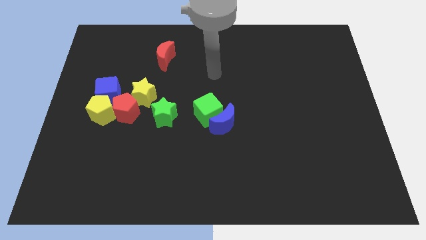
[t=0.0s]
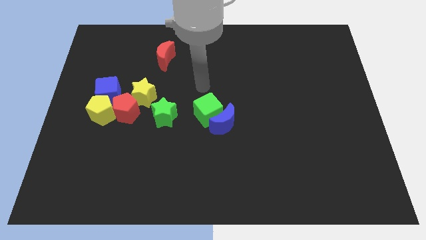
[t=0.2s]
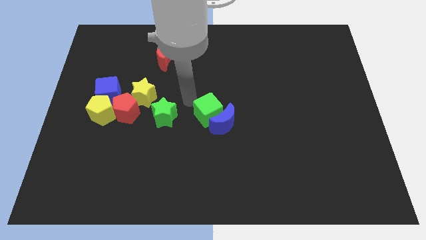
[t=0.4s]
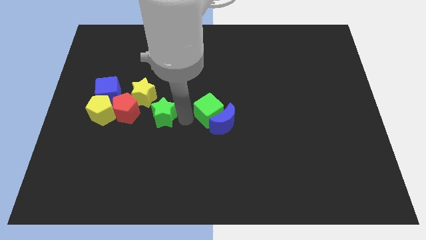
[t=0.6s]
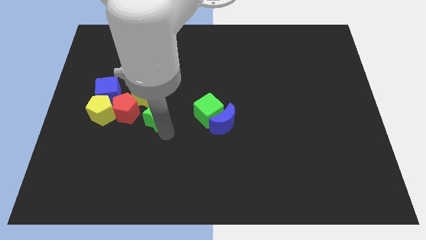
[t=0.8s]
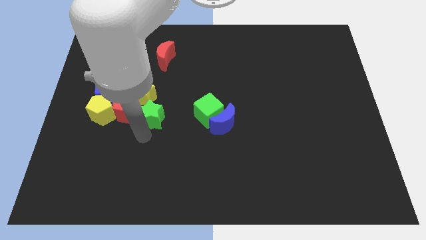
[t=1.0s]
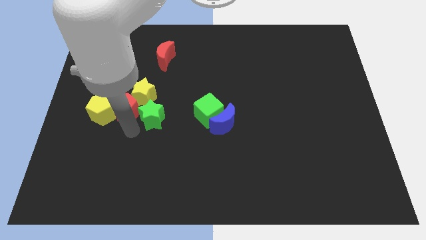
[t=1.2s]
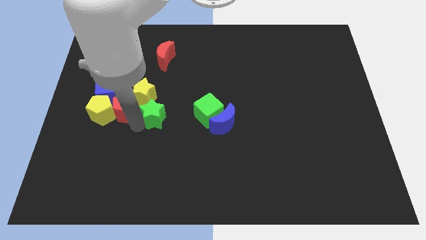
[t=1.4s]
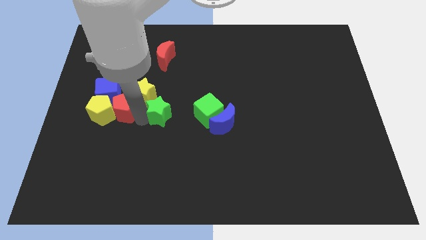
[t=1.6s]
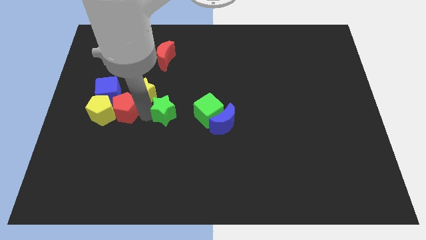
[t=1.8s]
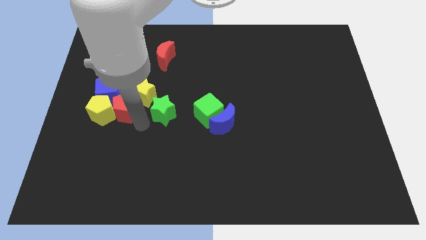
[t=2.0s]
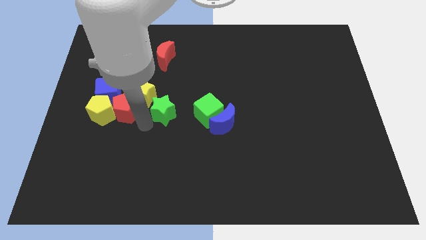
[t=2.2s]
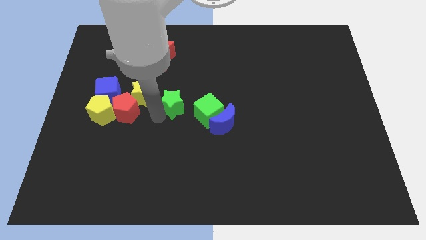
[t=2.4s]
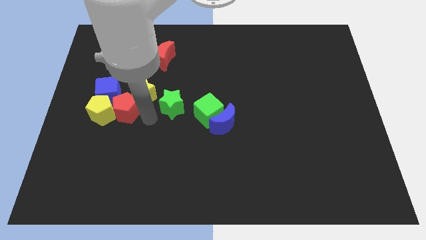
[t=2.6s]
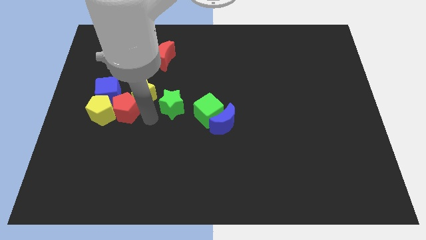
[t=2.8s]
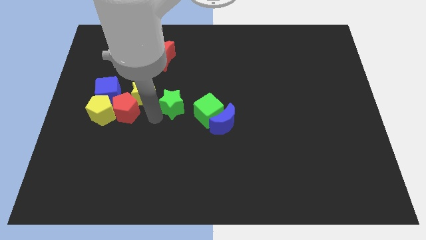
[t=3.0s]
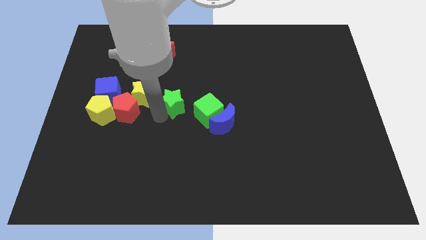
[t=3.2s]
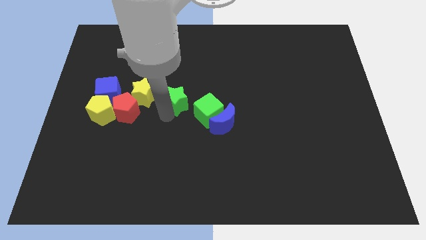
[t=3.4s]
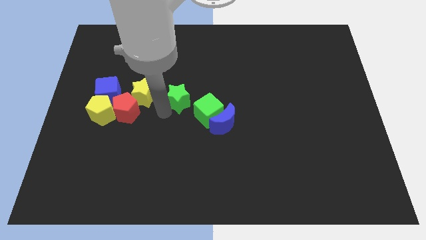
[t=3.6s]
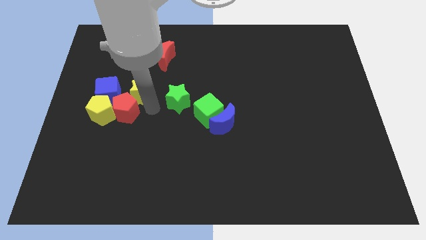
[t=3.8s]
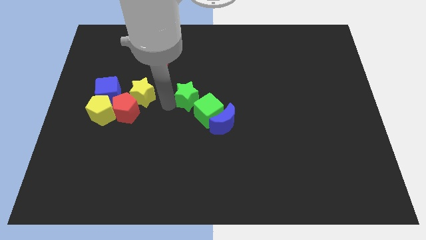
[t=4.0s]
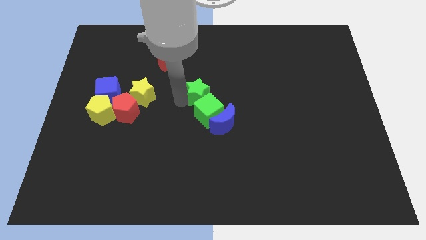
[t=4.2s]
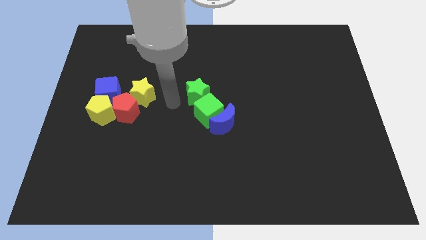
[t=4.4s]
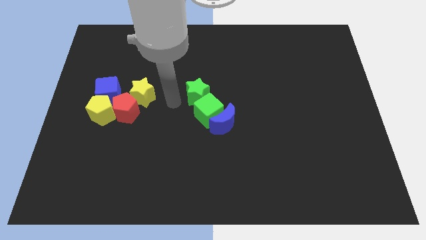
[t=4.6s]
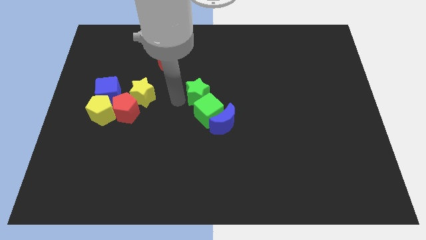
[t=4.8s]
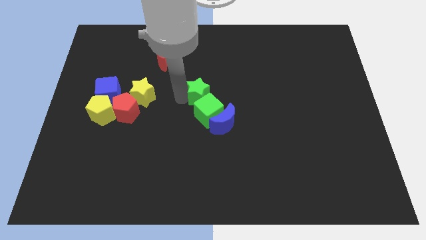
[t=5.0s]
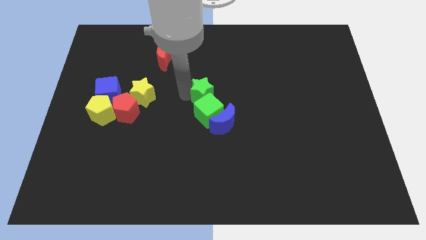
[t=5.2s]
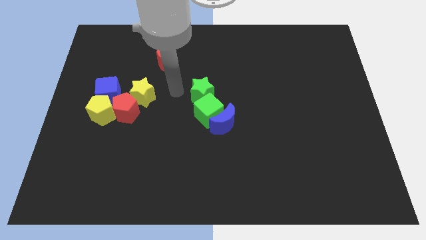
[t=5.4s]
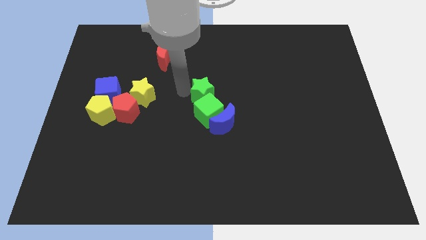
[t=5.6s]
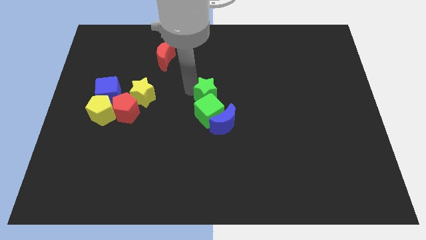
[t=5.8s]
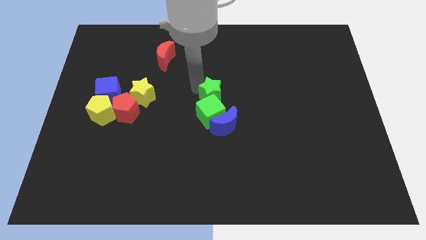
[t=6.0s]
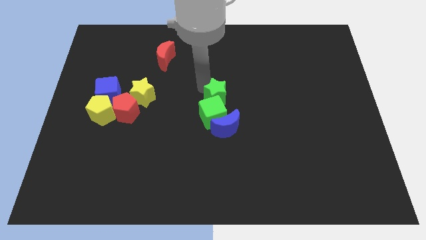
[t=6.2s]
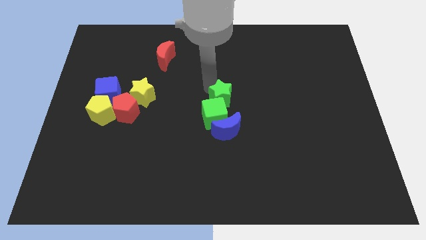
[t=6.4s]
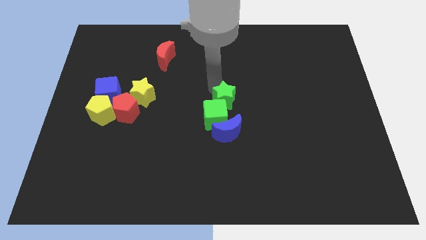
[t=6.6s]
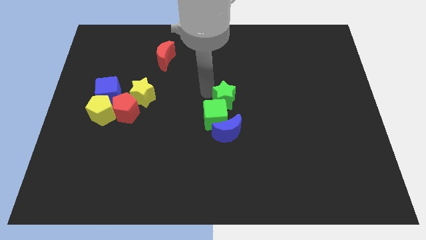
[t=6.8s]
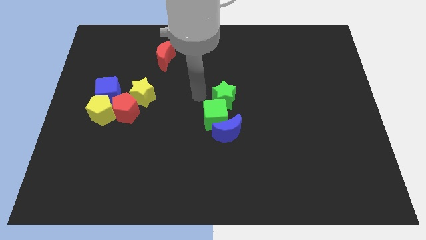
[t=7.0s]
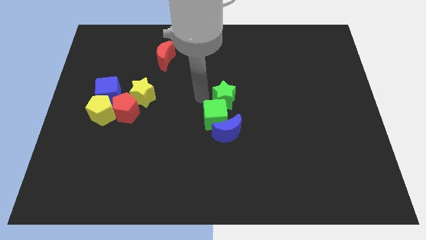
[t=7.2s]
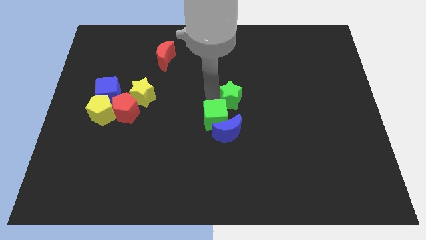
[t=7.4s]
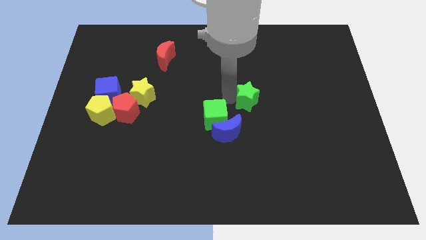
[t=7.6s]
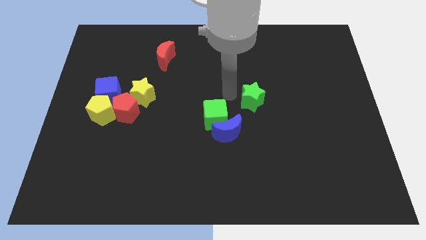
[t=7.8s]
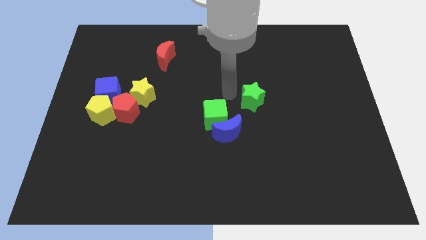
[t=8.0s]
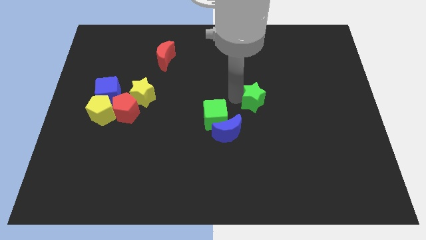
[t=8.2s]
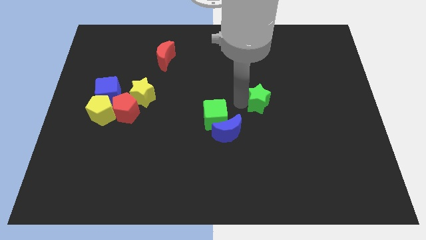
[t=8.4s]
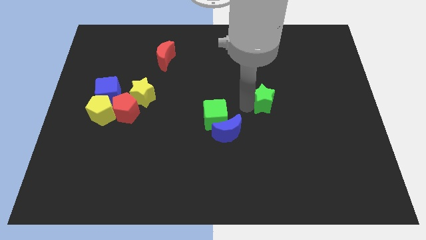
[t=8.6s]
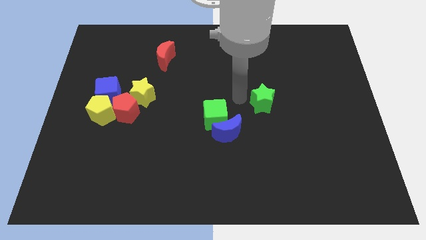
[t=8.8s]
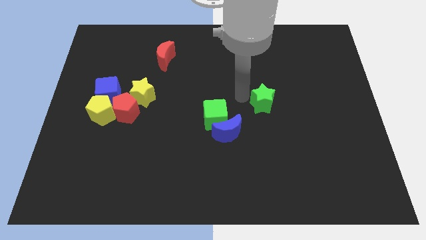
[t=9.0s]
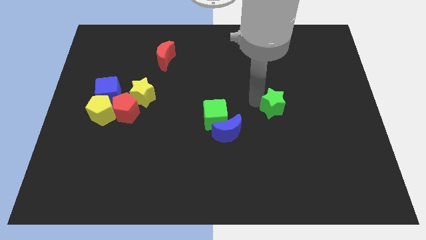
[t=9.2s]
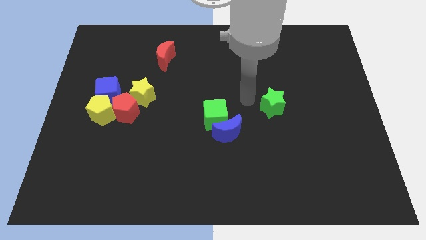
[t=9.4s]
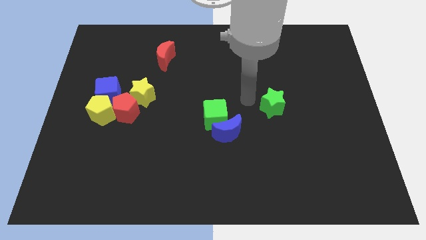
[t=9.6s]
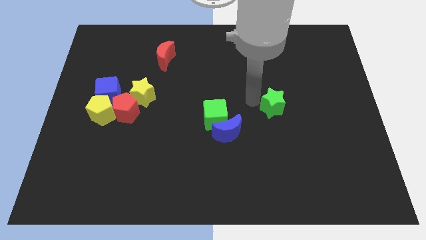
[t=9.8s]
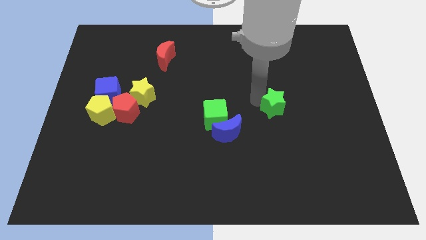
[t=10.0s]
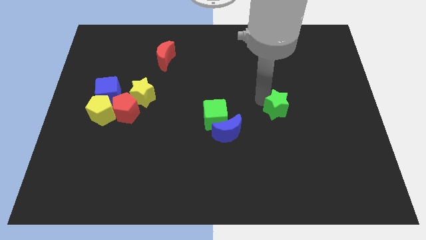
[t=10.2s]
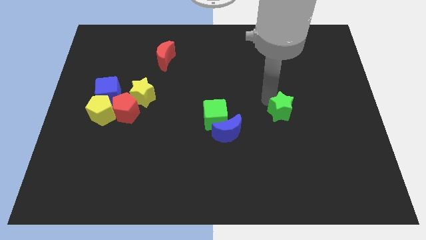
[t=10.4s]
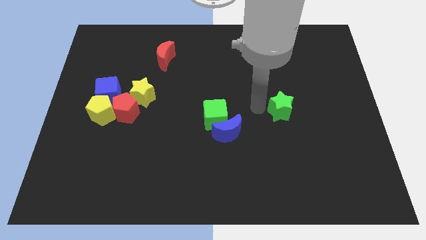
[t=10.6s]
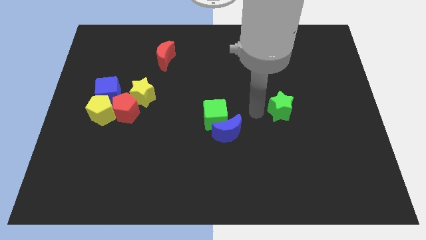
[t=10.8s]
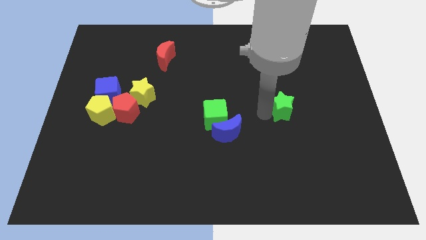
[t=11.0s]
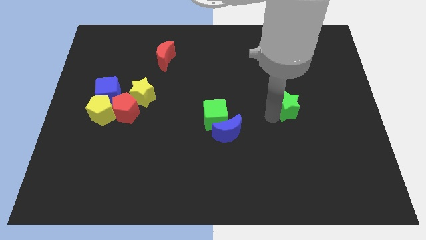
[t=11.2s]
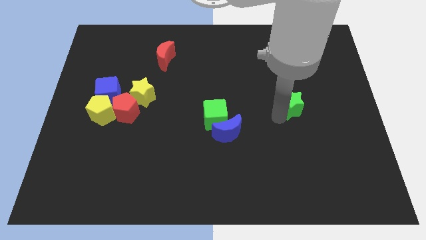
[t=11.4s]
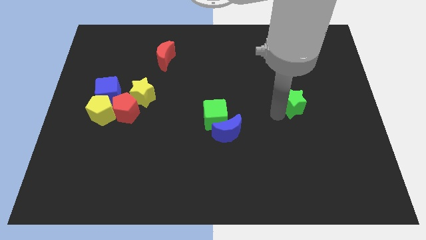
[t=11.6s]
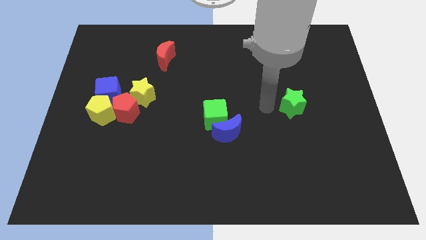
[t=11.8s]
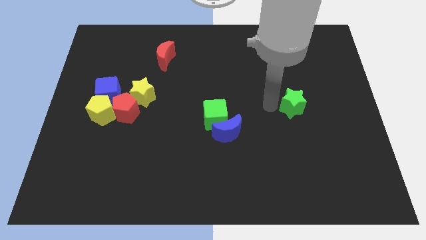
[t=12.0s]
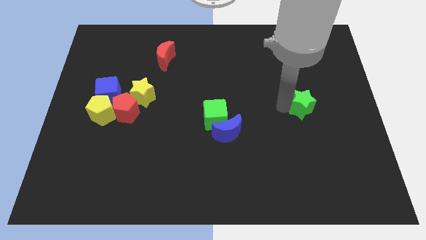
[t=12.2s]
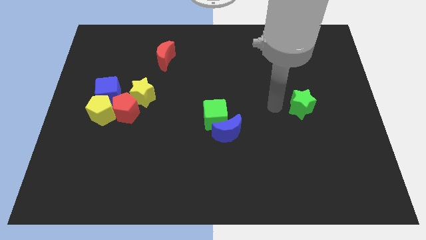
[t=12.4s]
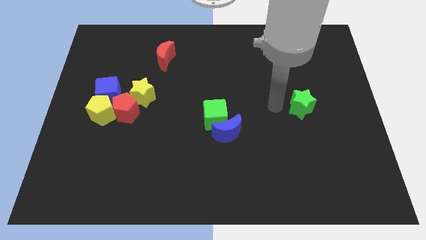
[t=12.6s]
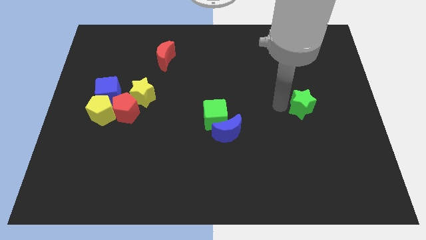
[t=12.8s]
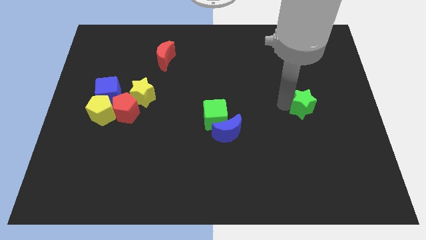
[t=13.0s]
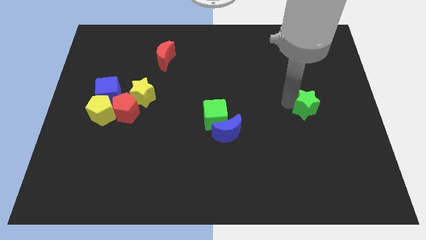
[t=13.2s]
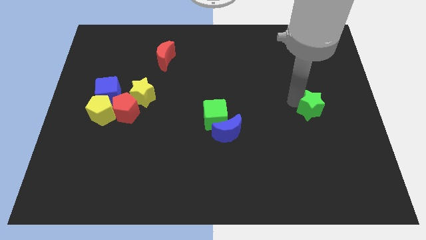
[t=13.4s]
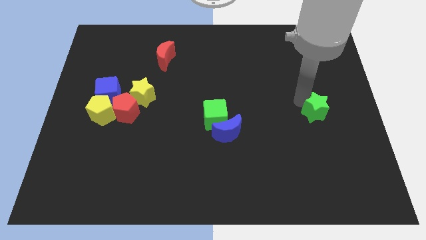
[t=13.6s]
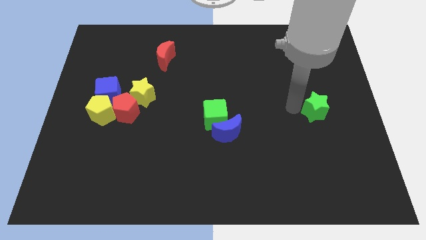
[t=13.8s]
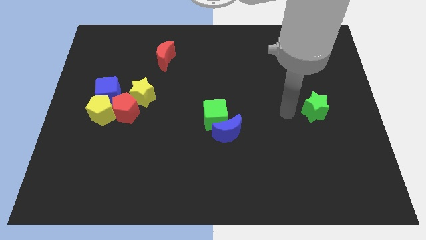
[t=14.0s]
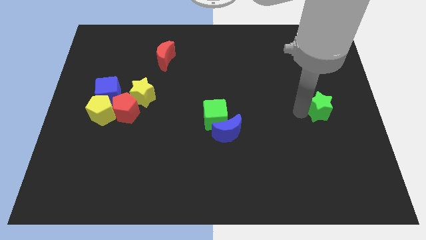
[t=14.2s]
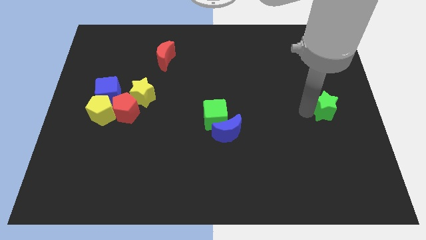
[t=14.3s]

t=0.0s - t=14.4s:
push the green star to the right side of the board
